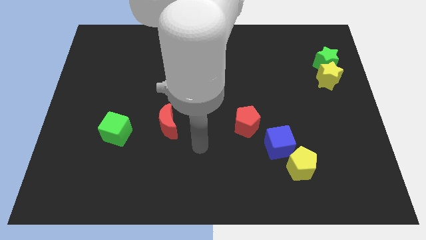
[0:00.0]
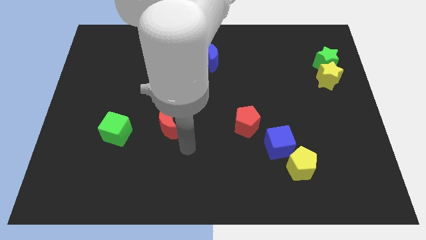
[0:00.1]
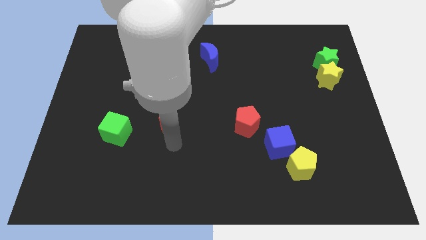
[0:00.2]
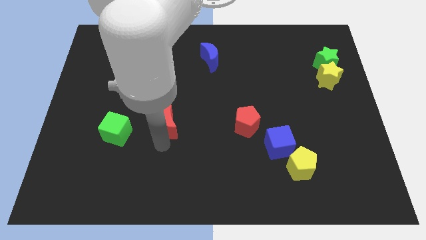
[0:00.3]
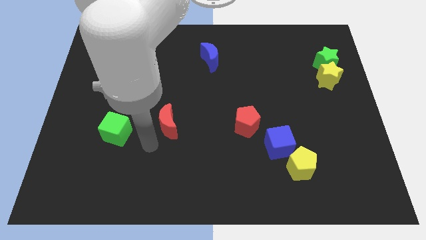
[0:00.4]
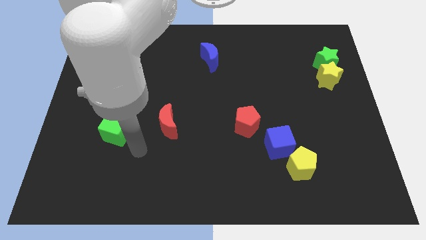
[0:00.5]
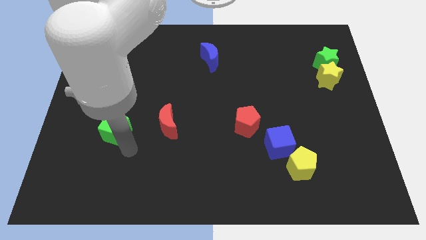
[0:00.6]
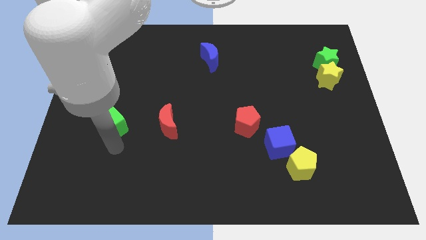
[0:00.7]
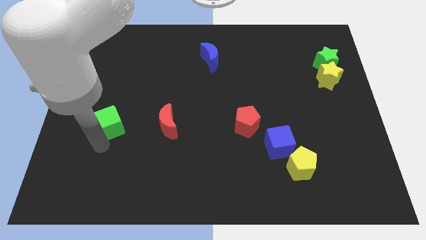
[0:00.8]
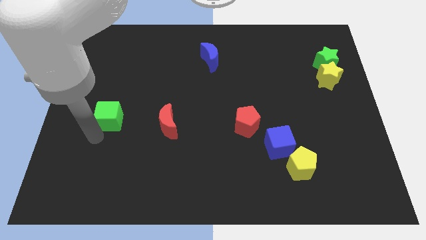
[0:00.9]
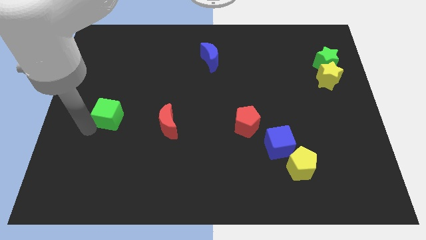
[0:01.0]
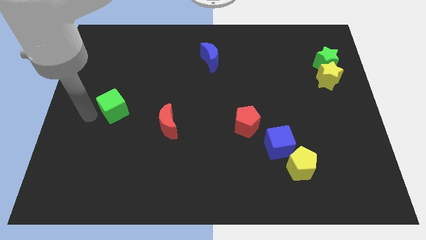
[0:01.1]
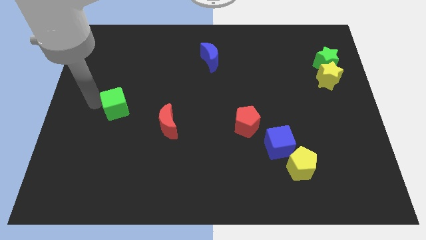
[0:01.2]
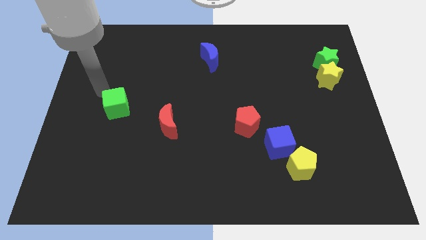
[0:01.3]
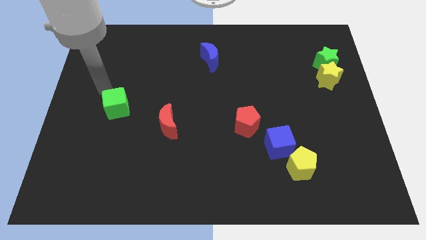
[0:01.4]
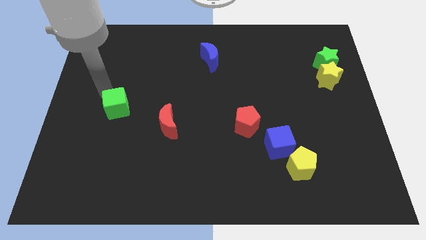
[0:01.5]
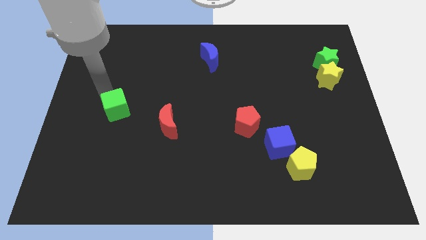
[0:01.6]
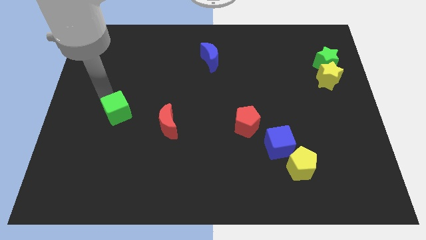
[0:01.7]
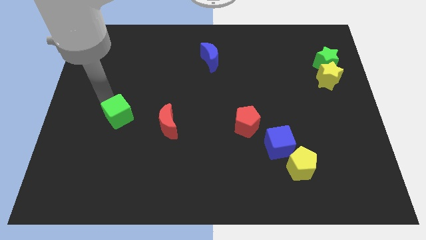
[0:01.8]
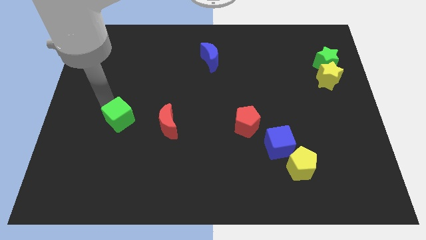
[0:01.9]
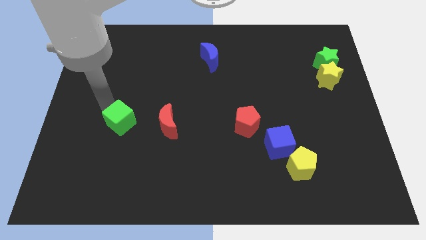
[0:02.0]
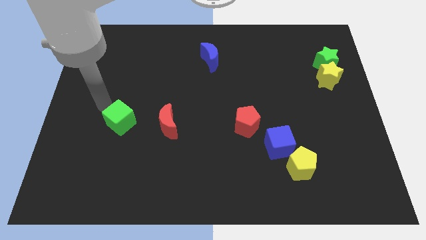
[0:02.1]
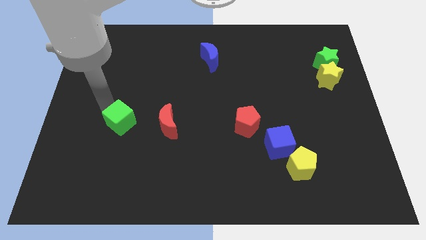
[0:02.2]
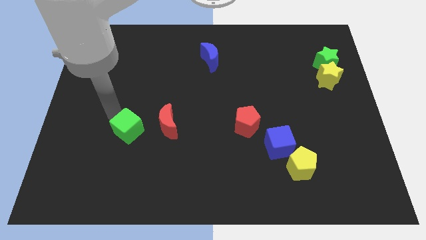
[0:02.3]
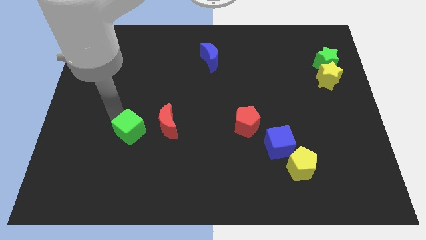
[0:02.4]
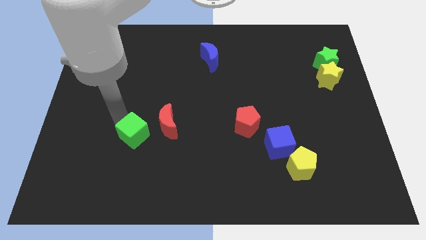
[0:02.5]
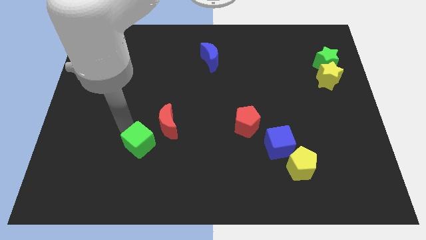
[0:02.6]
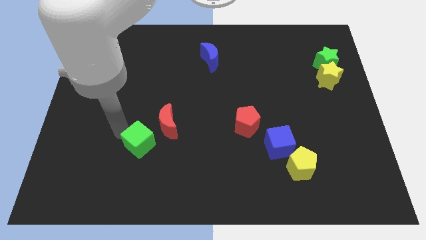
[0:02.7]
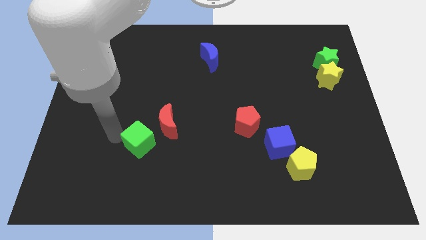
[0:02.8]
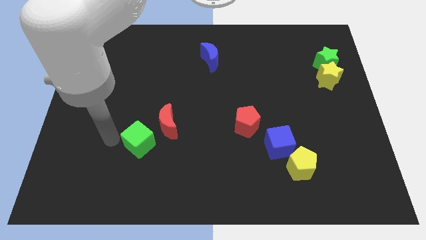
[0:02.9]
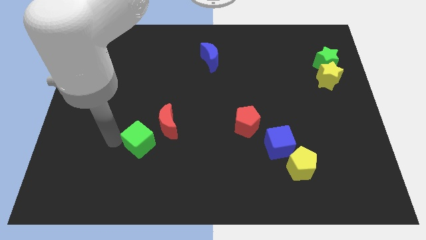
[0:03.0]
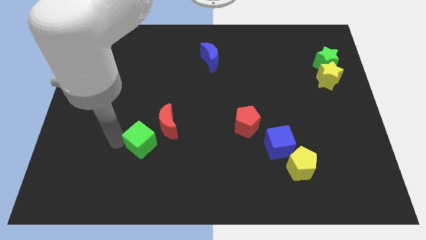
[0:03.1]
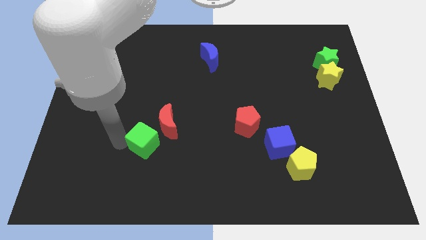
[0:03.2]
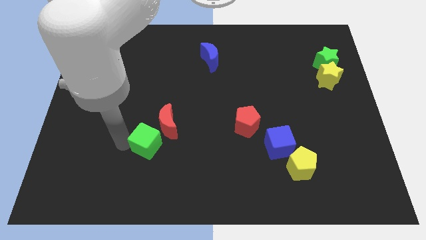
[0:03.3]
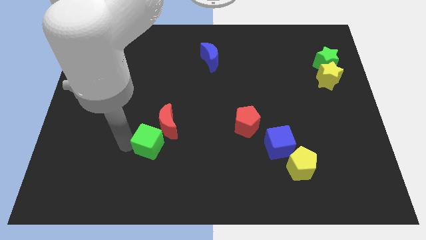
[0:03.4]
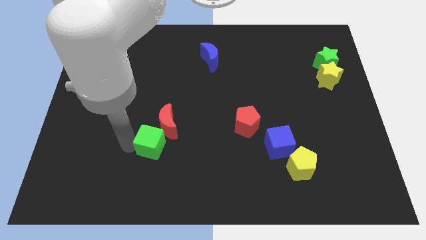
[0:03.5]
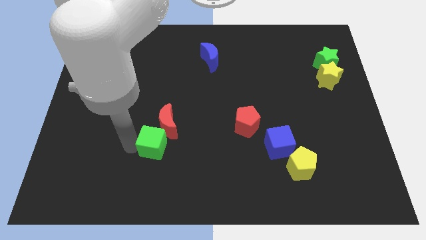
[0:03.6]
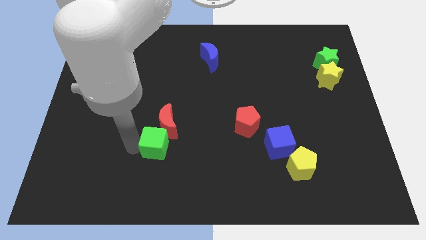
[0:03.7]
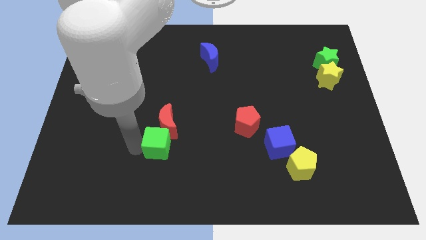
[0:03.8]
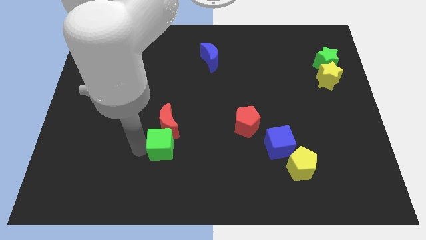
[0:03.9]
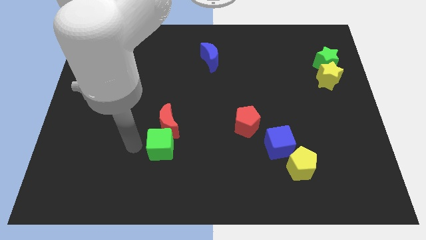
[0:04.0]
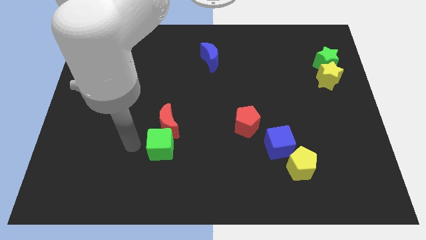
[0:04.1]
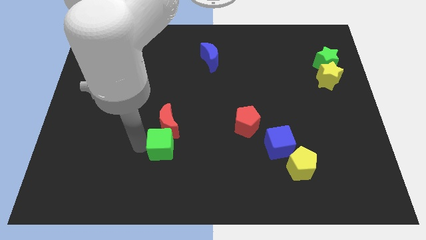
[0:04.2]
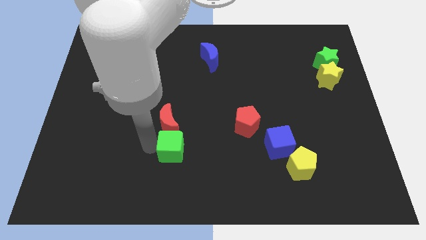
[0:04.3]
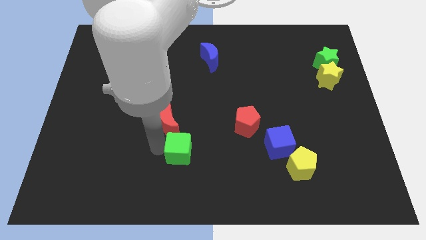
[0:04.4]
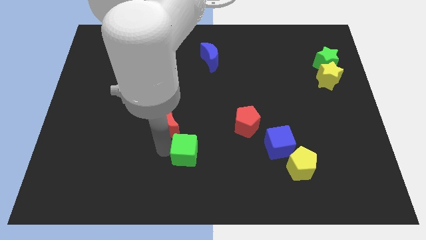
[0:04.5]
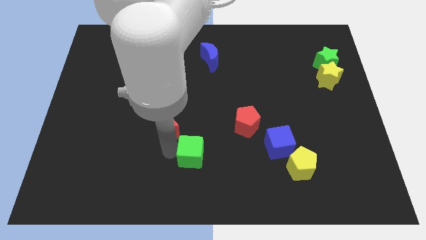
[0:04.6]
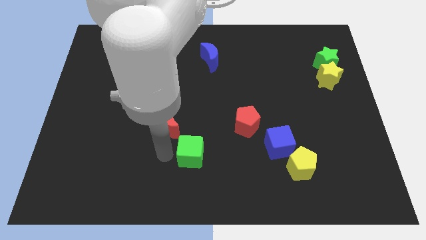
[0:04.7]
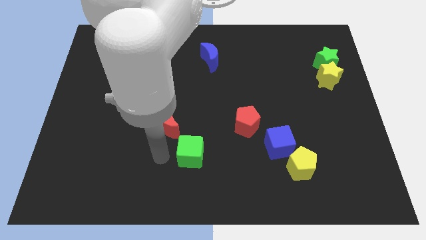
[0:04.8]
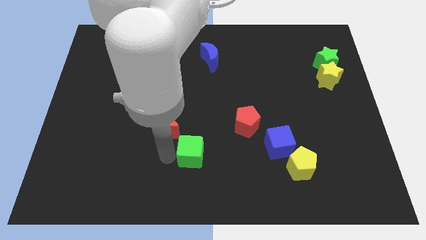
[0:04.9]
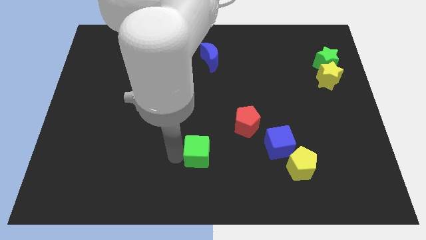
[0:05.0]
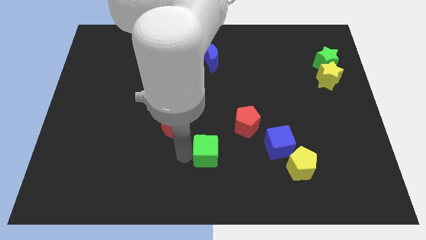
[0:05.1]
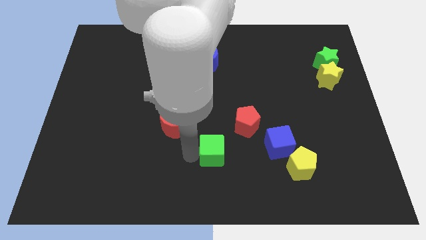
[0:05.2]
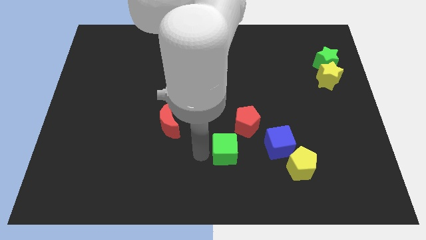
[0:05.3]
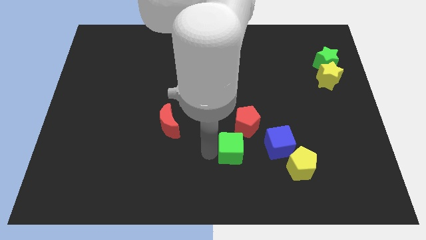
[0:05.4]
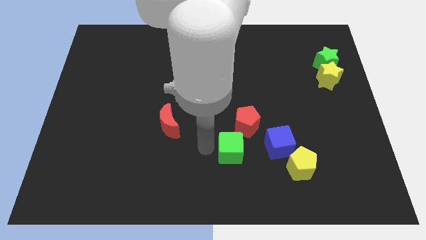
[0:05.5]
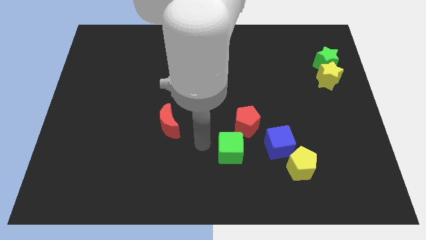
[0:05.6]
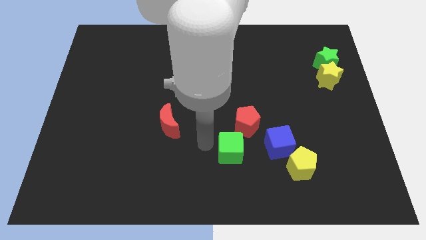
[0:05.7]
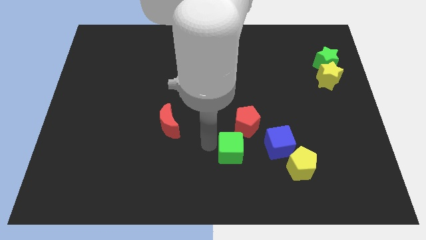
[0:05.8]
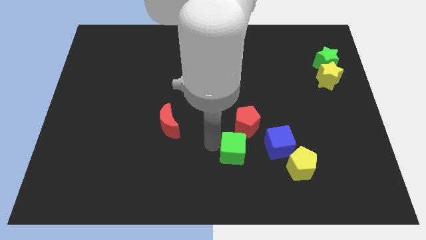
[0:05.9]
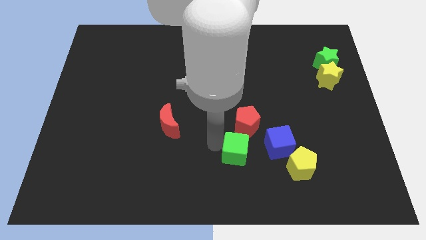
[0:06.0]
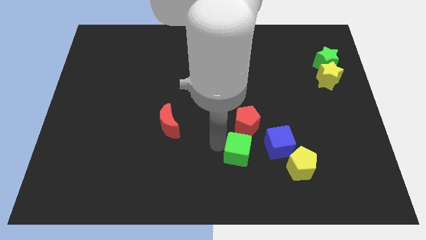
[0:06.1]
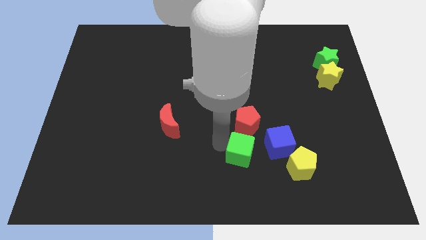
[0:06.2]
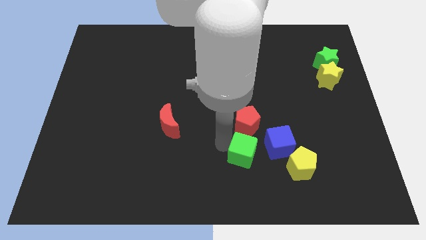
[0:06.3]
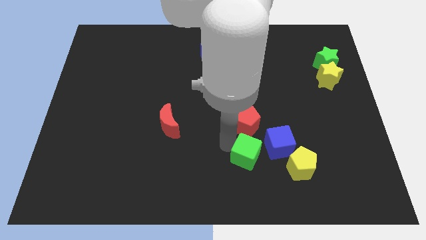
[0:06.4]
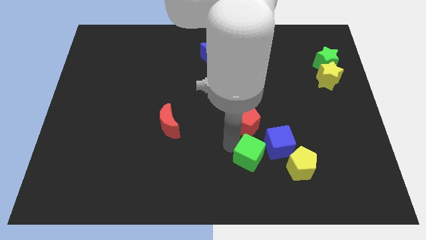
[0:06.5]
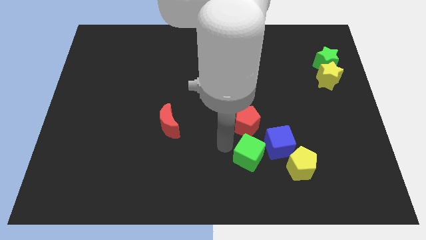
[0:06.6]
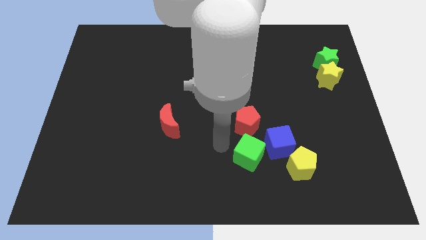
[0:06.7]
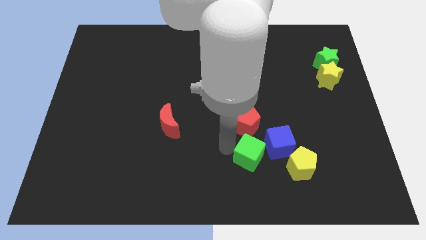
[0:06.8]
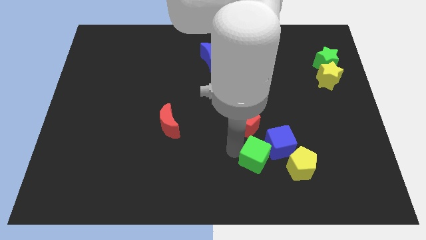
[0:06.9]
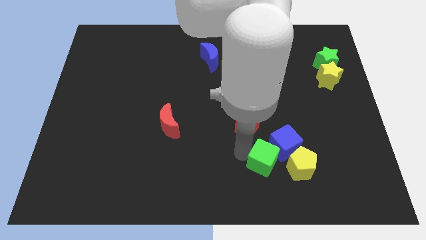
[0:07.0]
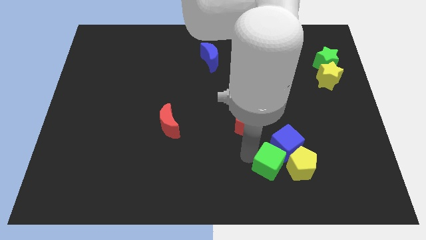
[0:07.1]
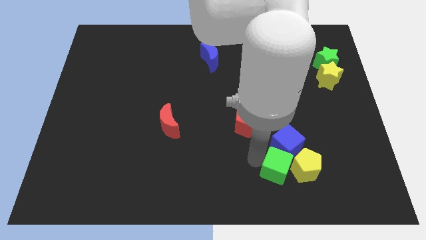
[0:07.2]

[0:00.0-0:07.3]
move the green cube close to the yellow pentagon

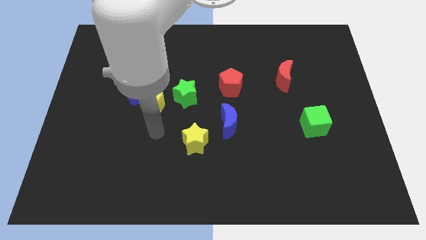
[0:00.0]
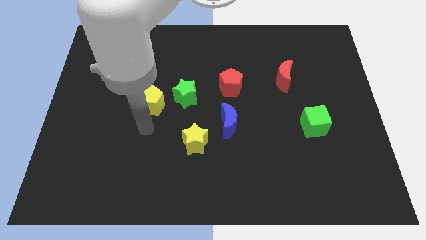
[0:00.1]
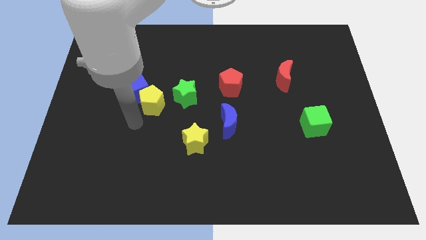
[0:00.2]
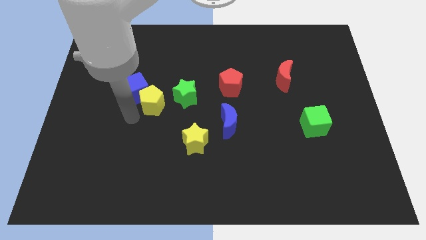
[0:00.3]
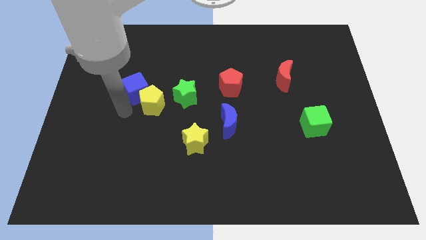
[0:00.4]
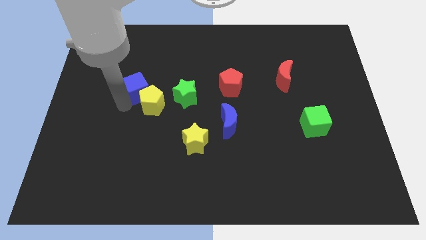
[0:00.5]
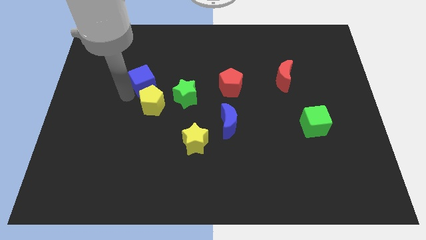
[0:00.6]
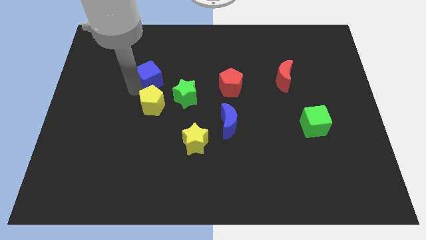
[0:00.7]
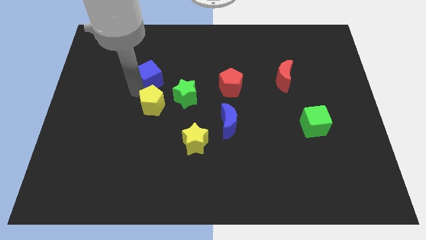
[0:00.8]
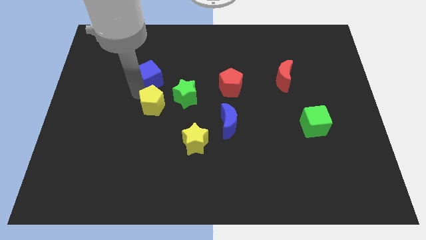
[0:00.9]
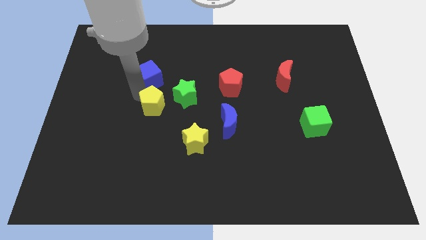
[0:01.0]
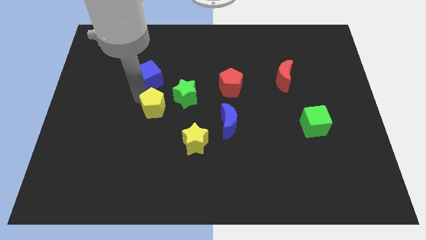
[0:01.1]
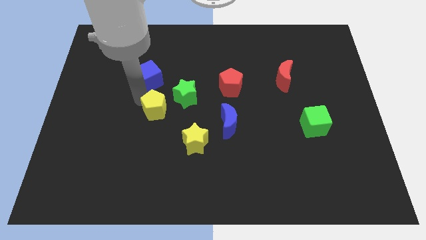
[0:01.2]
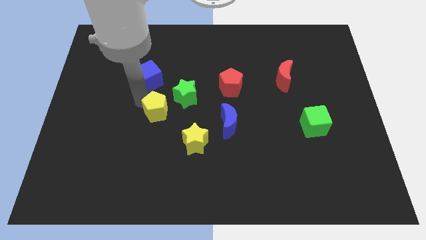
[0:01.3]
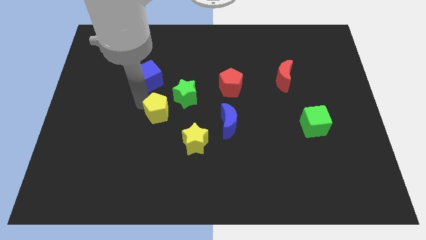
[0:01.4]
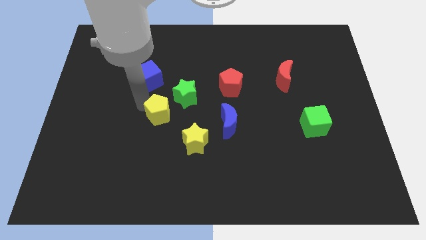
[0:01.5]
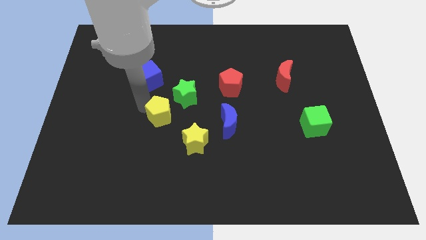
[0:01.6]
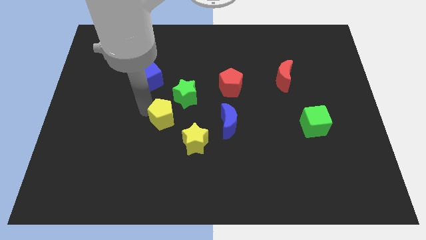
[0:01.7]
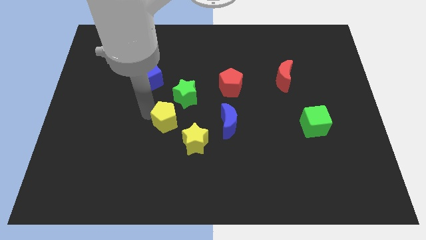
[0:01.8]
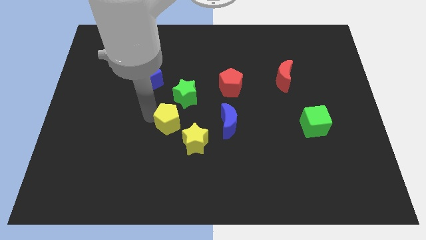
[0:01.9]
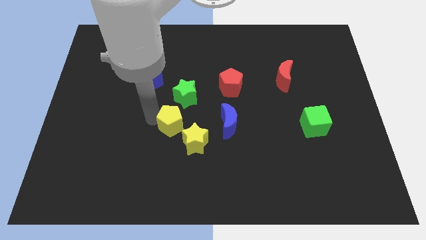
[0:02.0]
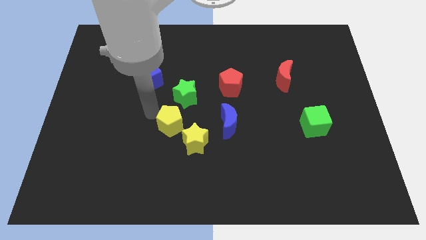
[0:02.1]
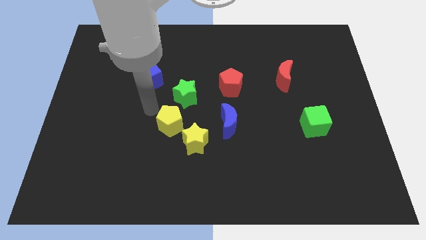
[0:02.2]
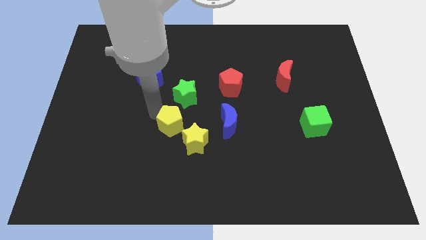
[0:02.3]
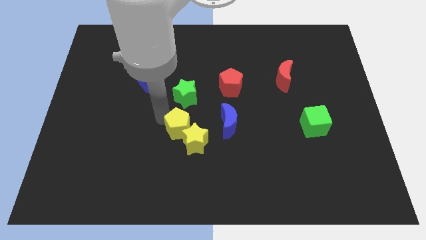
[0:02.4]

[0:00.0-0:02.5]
push the yellow pentagon next to the yellow star
